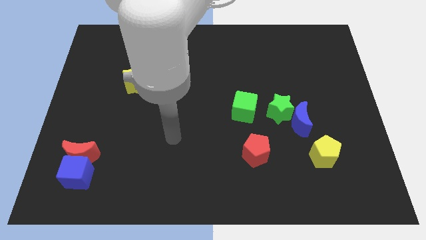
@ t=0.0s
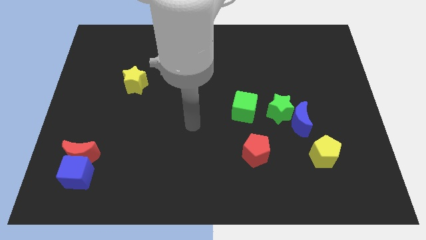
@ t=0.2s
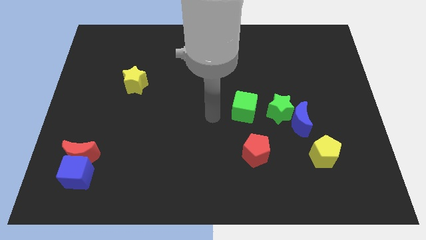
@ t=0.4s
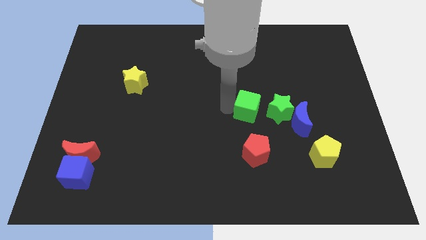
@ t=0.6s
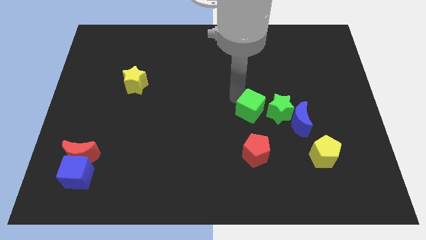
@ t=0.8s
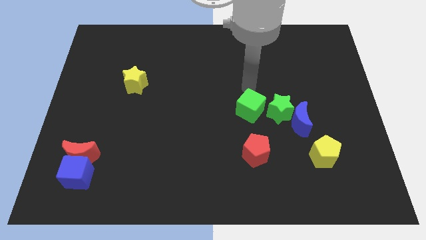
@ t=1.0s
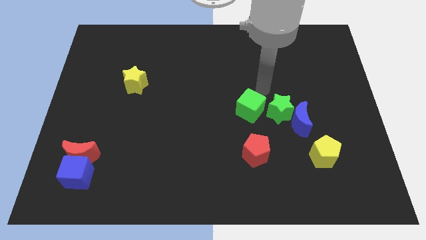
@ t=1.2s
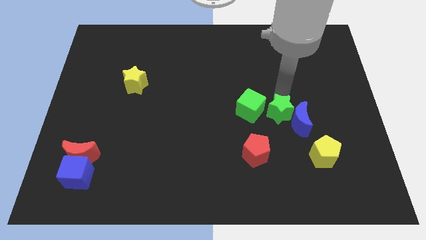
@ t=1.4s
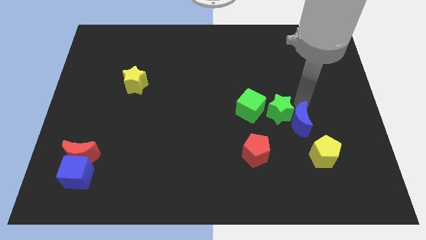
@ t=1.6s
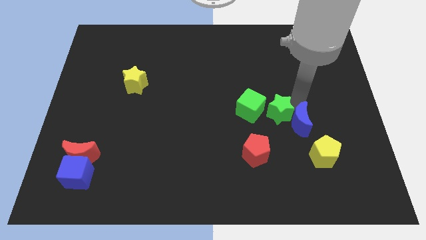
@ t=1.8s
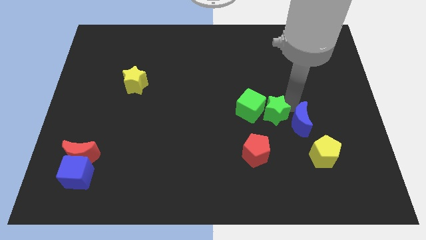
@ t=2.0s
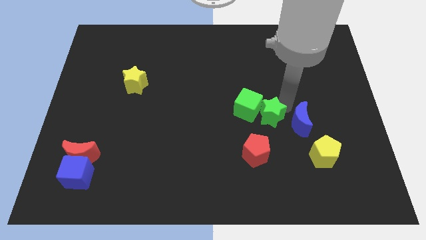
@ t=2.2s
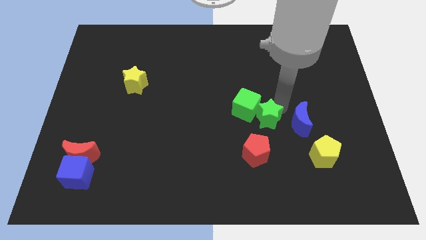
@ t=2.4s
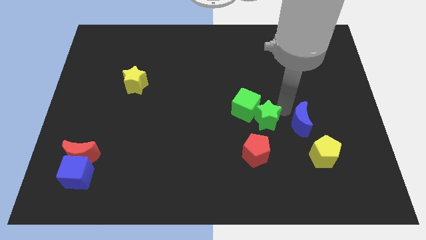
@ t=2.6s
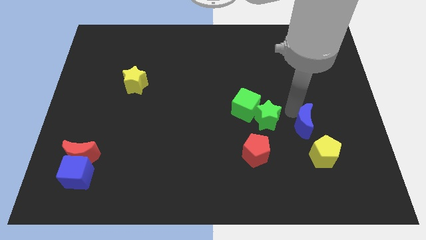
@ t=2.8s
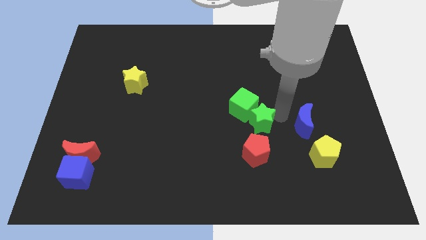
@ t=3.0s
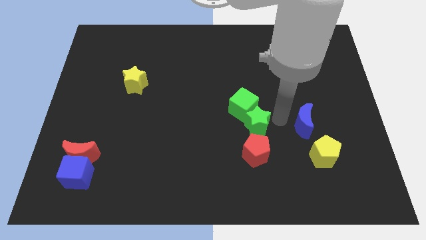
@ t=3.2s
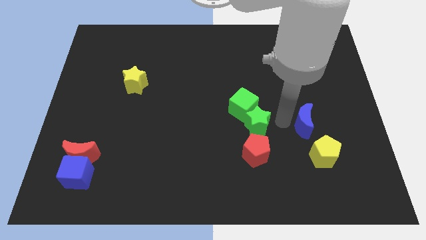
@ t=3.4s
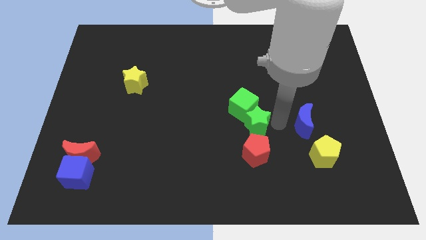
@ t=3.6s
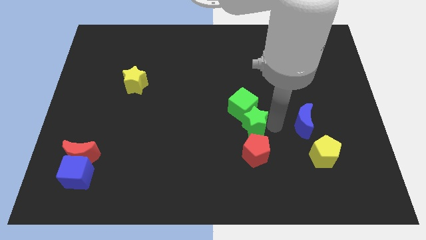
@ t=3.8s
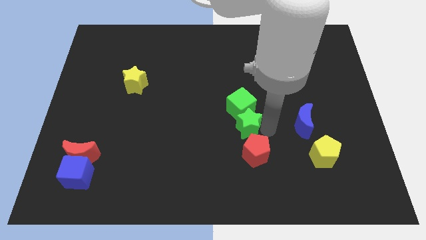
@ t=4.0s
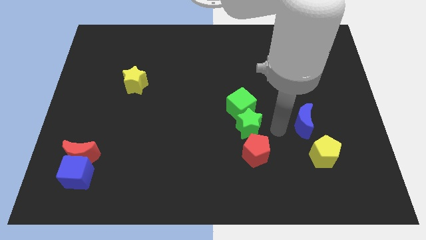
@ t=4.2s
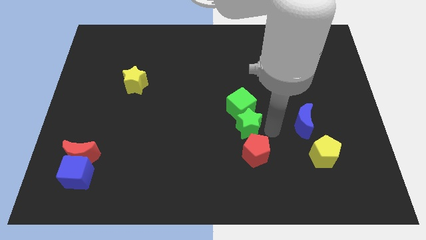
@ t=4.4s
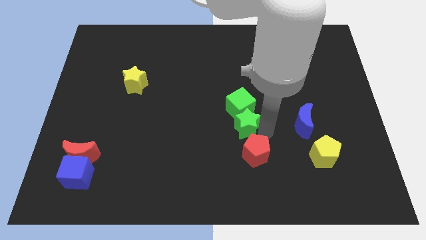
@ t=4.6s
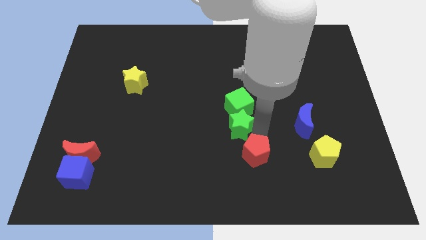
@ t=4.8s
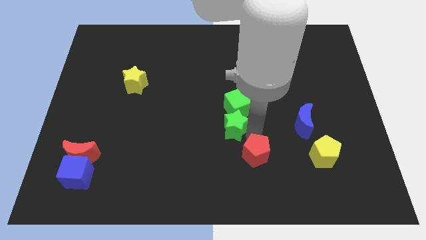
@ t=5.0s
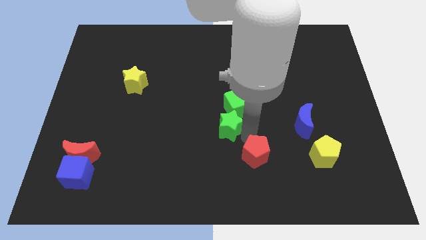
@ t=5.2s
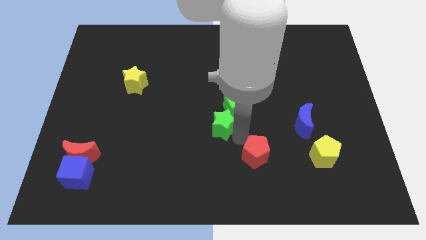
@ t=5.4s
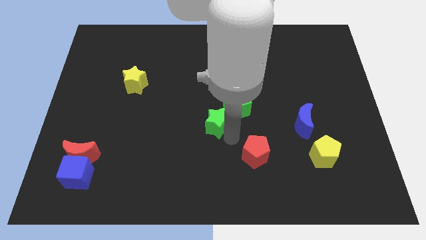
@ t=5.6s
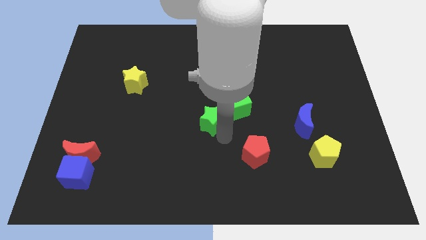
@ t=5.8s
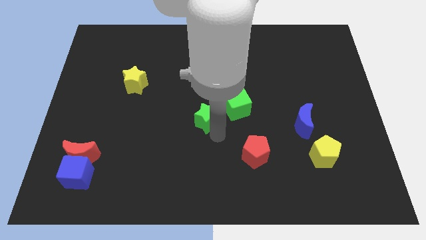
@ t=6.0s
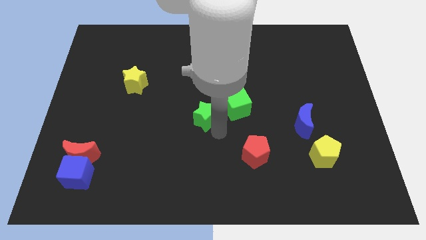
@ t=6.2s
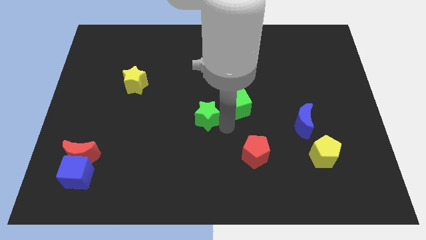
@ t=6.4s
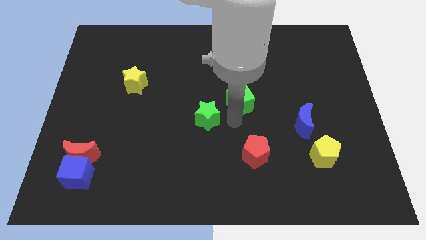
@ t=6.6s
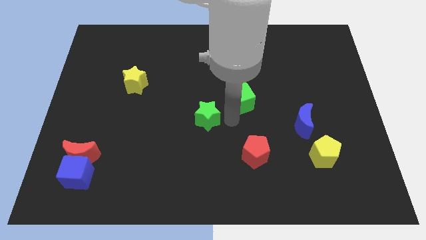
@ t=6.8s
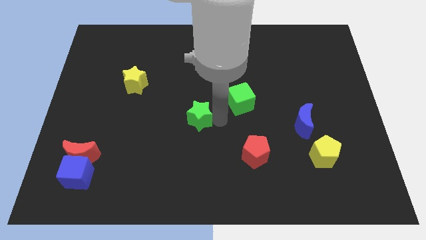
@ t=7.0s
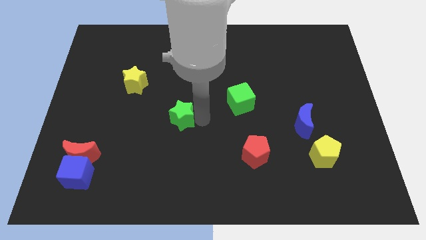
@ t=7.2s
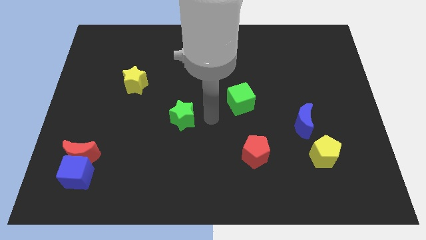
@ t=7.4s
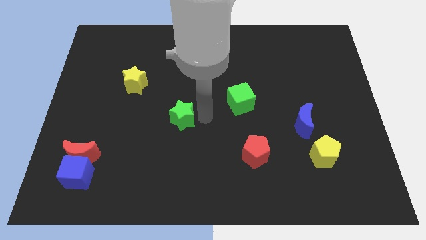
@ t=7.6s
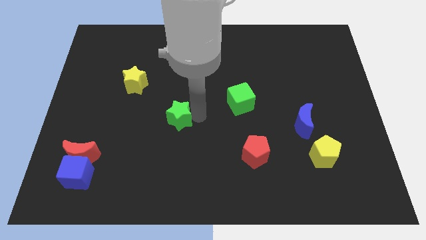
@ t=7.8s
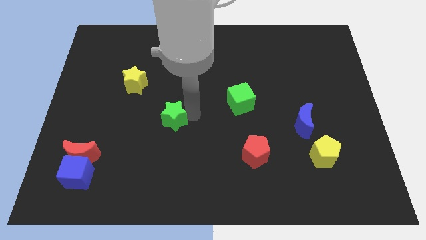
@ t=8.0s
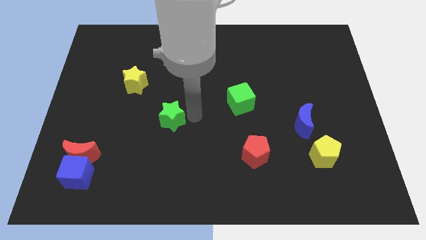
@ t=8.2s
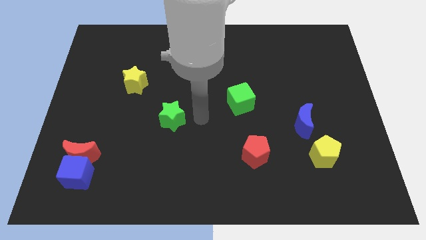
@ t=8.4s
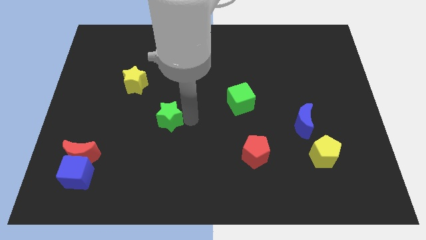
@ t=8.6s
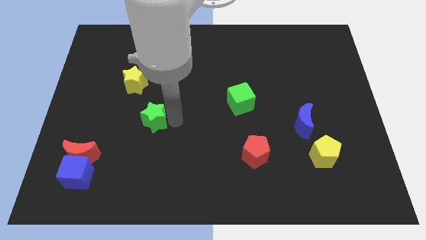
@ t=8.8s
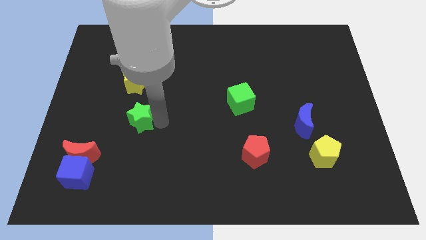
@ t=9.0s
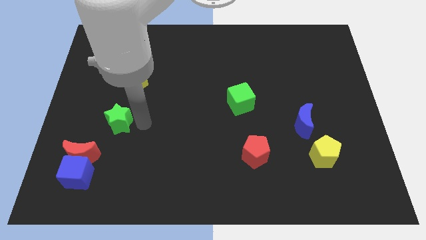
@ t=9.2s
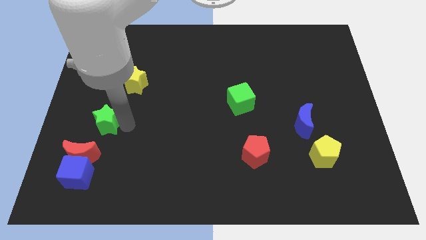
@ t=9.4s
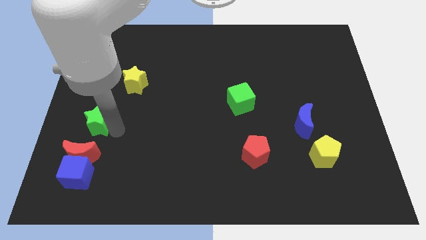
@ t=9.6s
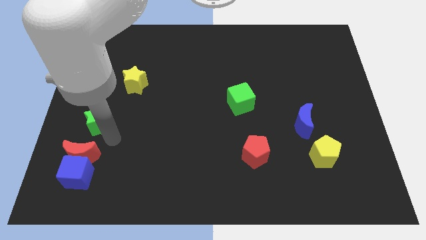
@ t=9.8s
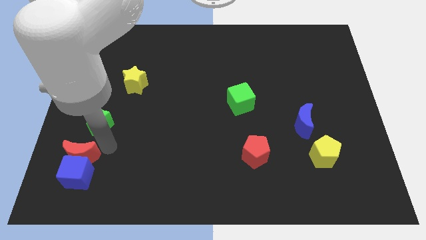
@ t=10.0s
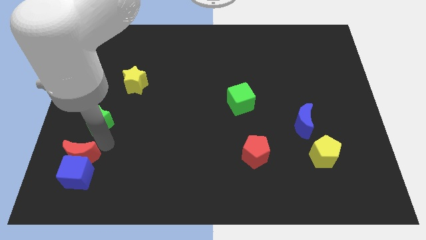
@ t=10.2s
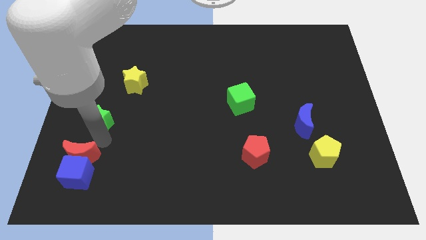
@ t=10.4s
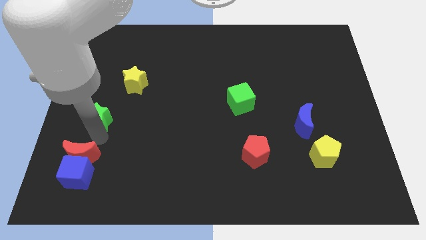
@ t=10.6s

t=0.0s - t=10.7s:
move the green star to the left side of the board

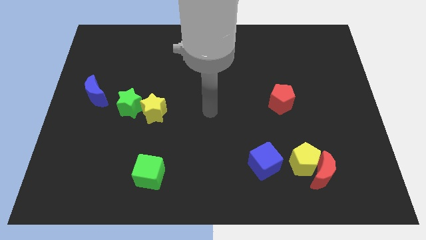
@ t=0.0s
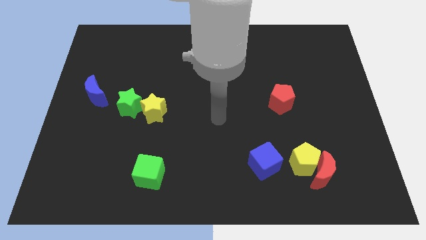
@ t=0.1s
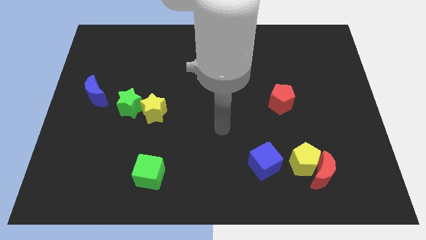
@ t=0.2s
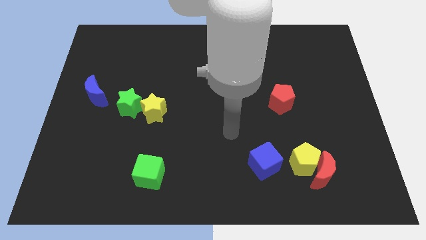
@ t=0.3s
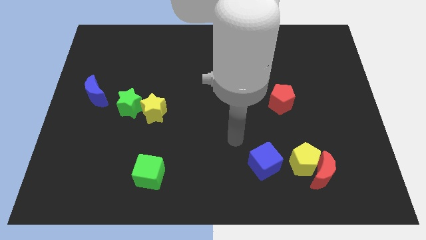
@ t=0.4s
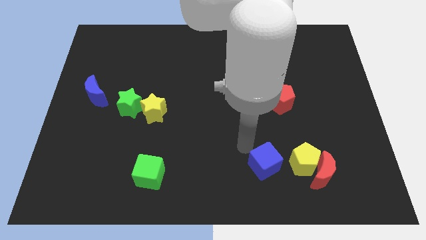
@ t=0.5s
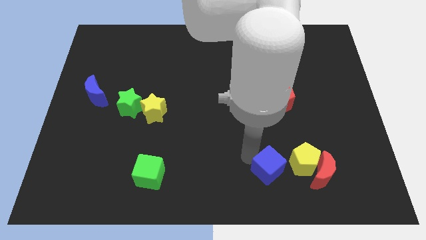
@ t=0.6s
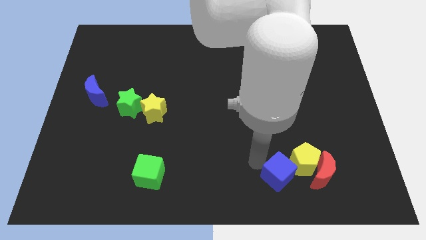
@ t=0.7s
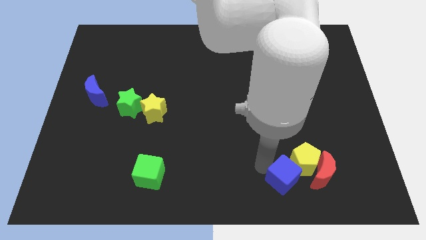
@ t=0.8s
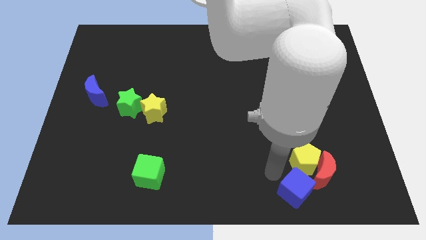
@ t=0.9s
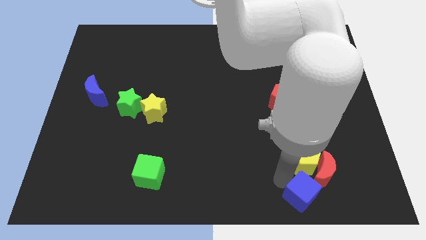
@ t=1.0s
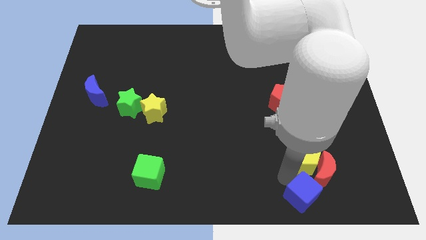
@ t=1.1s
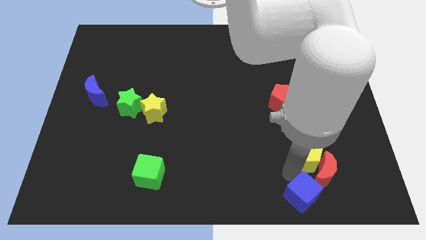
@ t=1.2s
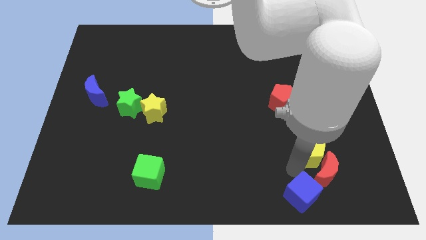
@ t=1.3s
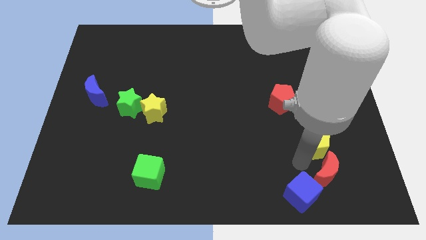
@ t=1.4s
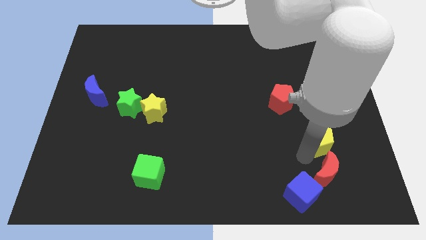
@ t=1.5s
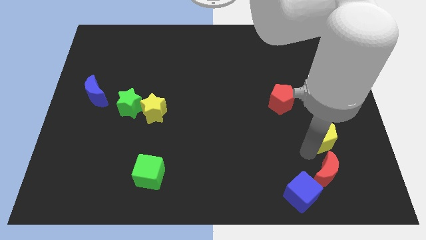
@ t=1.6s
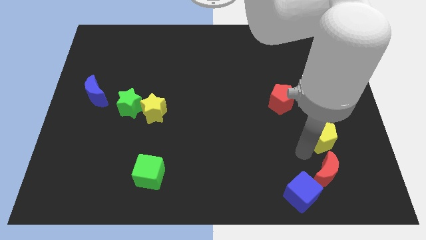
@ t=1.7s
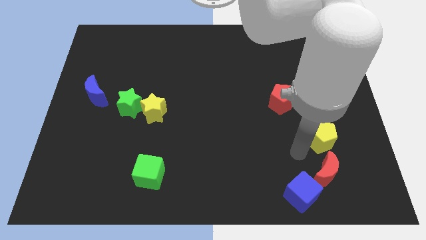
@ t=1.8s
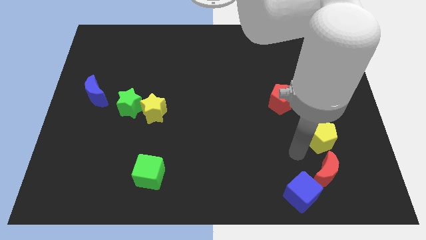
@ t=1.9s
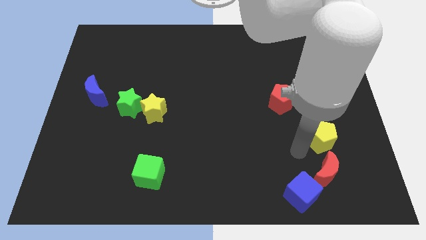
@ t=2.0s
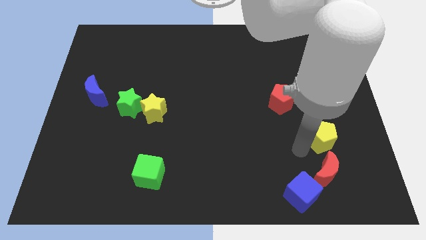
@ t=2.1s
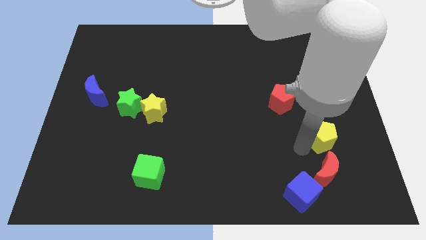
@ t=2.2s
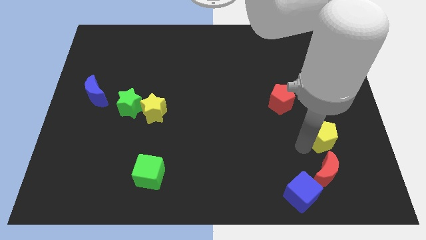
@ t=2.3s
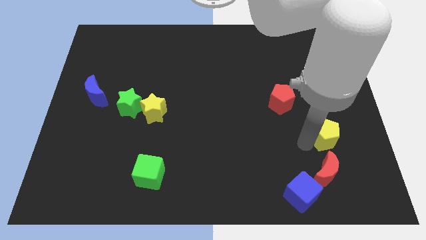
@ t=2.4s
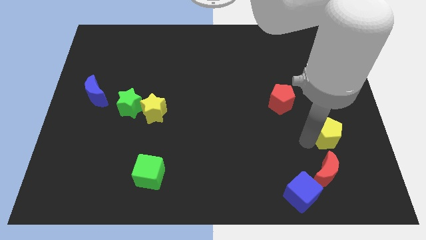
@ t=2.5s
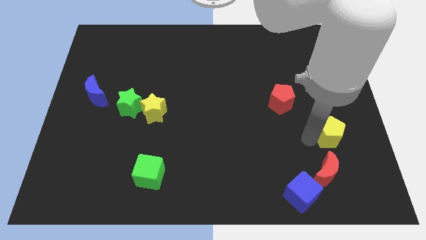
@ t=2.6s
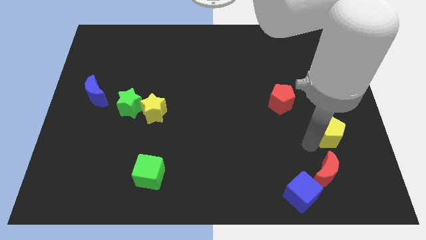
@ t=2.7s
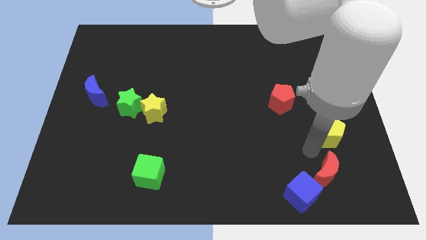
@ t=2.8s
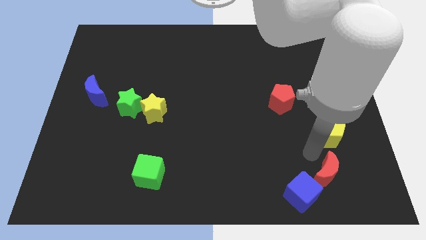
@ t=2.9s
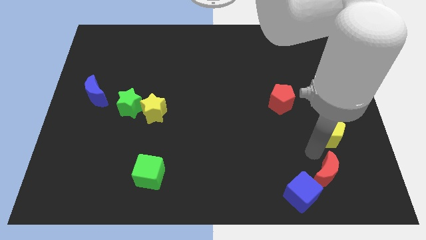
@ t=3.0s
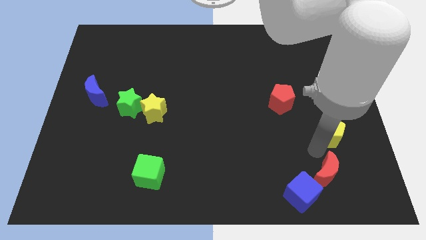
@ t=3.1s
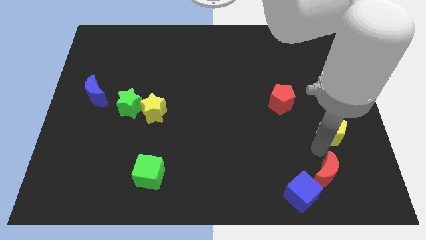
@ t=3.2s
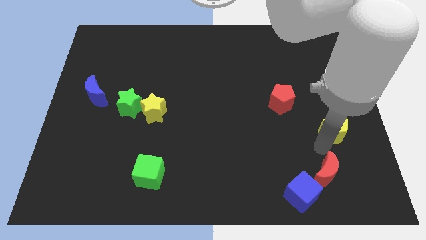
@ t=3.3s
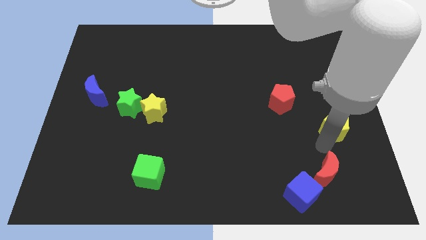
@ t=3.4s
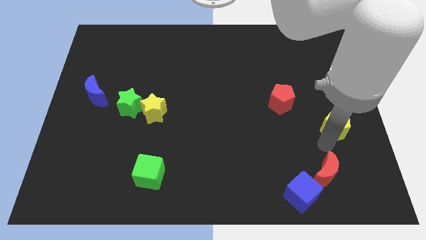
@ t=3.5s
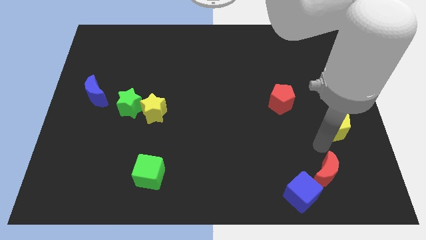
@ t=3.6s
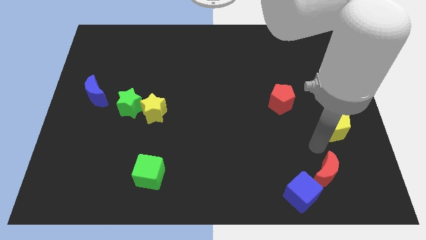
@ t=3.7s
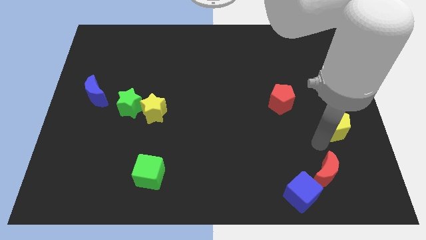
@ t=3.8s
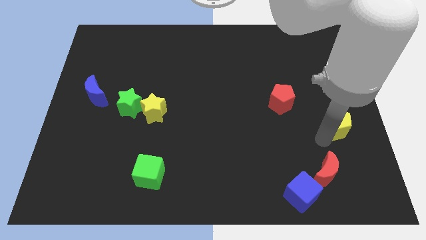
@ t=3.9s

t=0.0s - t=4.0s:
move the yellow pentagon to the right side of the board
